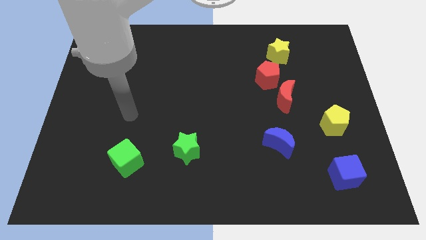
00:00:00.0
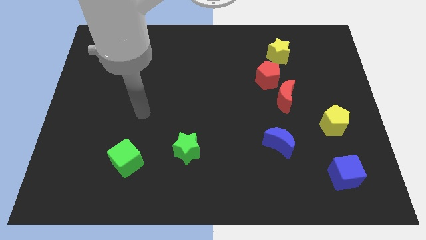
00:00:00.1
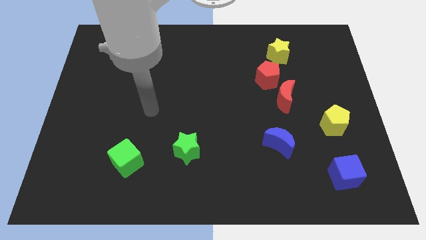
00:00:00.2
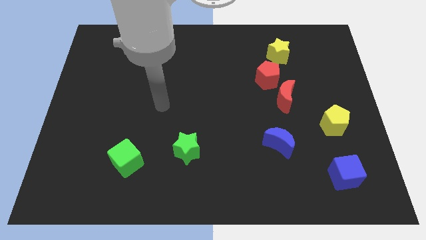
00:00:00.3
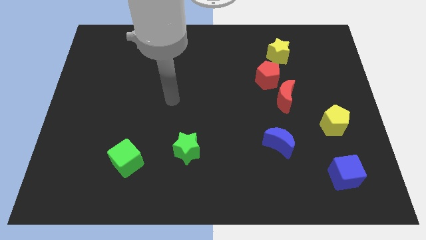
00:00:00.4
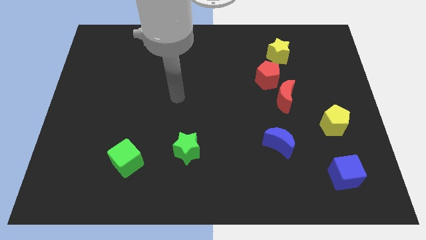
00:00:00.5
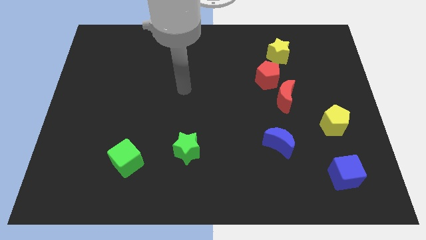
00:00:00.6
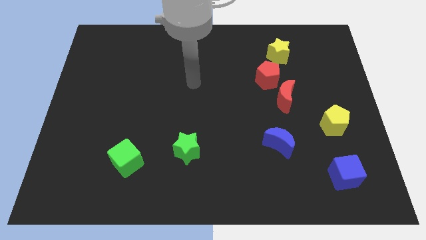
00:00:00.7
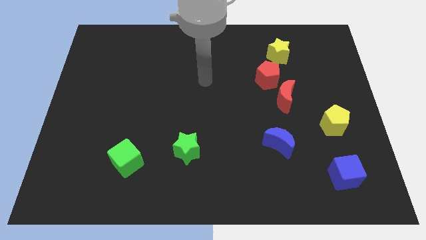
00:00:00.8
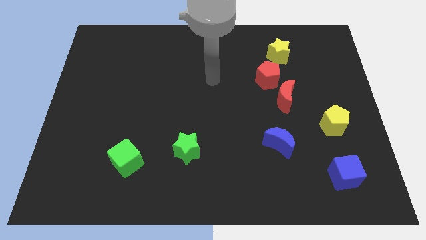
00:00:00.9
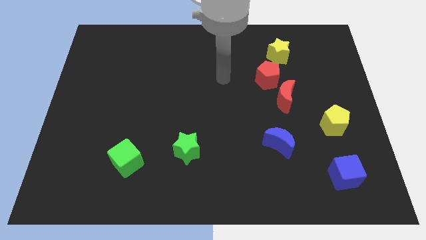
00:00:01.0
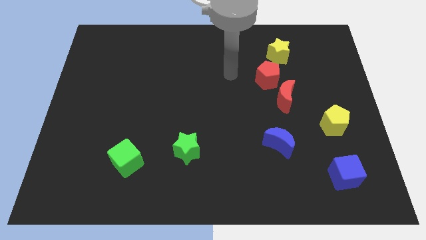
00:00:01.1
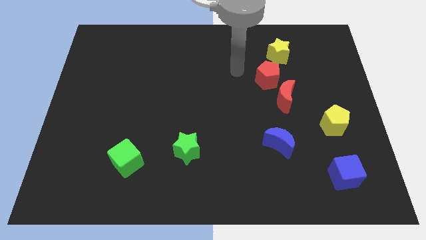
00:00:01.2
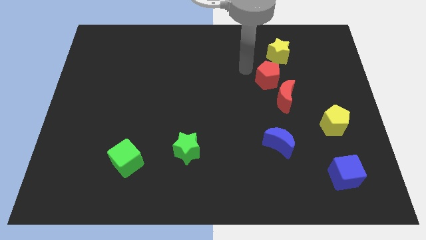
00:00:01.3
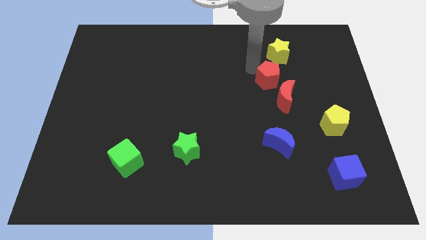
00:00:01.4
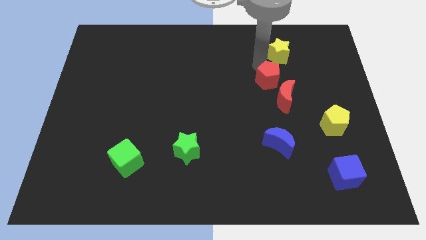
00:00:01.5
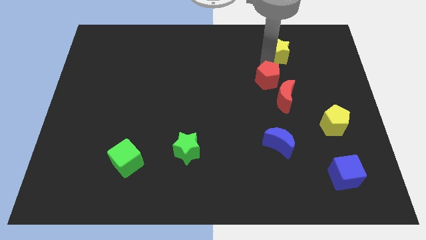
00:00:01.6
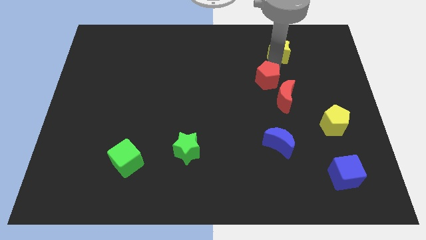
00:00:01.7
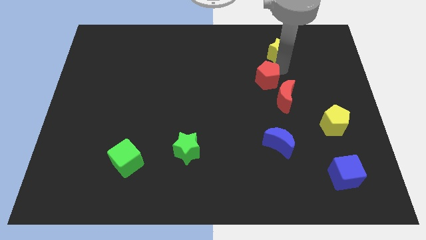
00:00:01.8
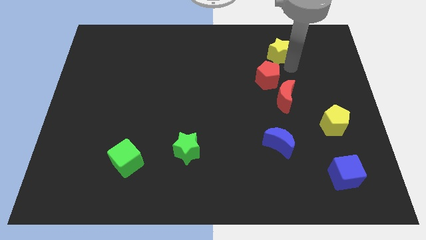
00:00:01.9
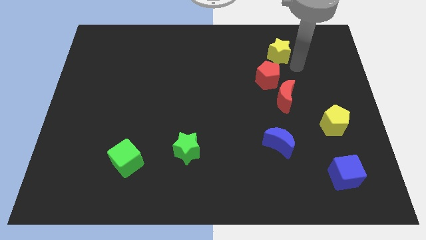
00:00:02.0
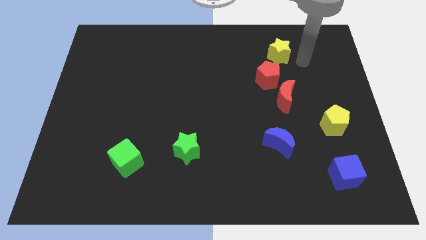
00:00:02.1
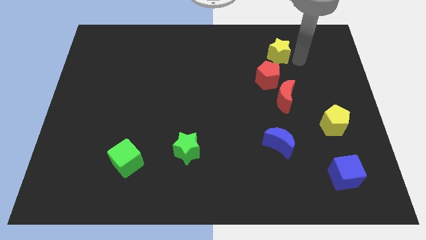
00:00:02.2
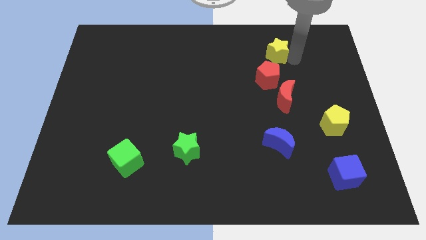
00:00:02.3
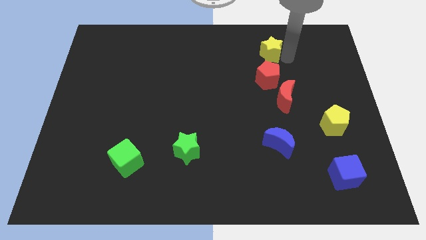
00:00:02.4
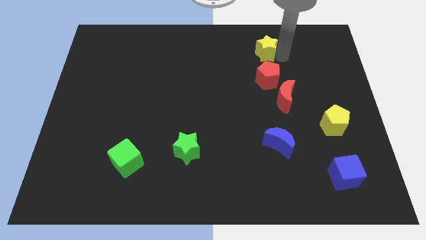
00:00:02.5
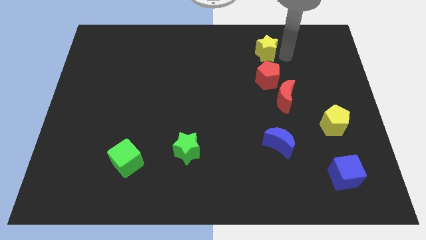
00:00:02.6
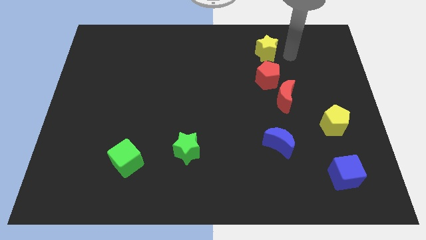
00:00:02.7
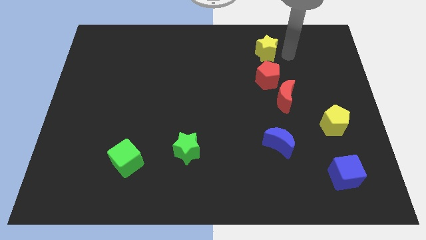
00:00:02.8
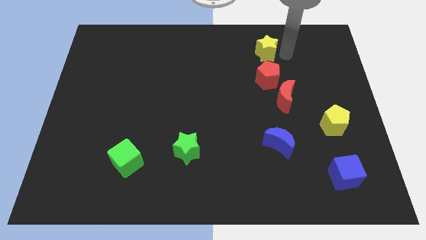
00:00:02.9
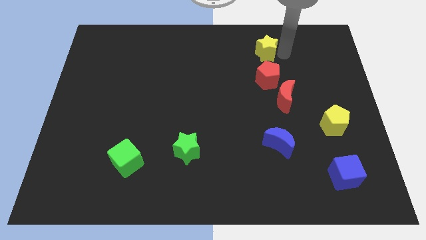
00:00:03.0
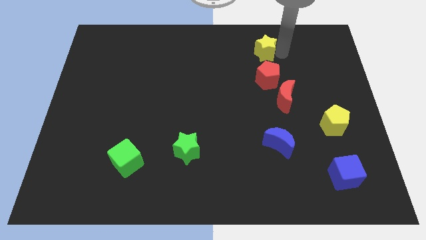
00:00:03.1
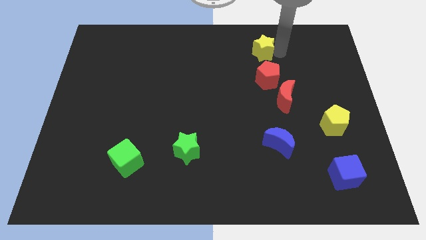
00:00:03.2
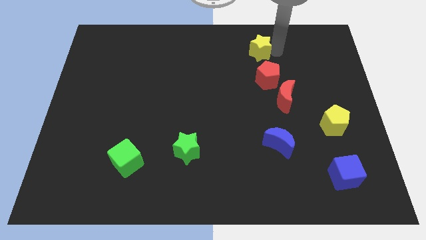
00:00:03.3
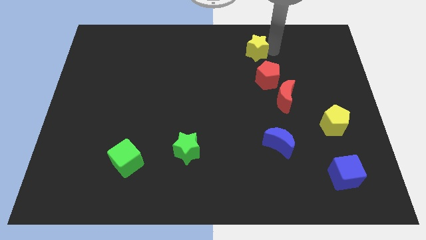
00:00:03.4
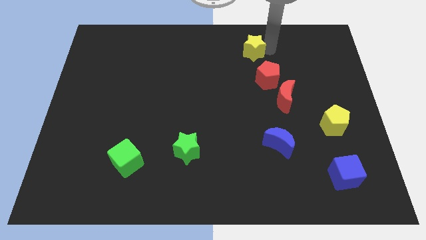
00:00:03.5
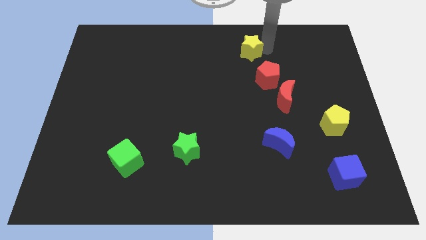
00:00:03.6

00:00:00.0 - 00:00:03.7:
push the yellow star to the left a bit

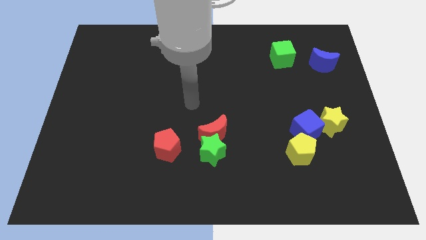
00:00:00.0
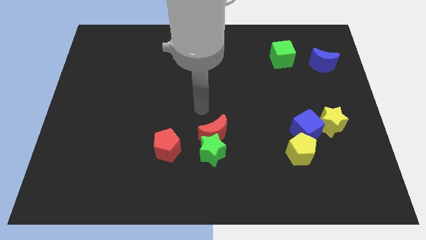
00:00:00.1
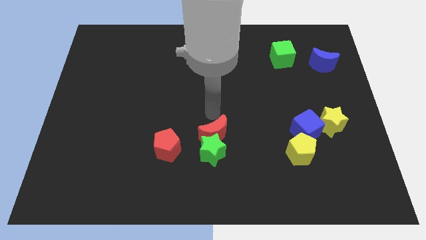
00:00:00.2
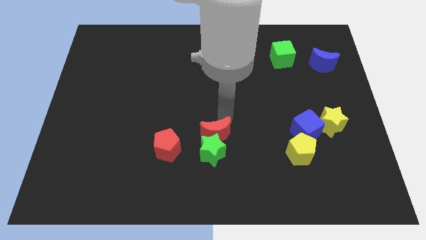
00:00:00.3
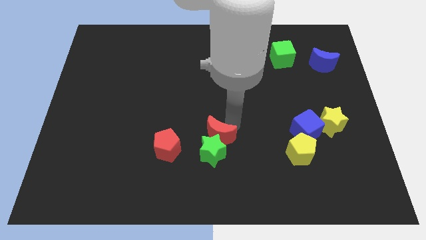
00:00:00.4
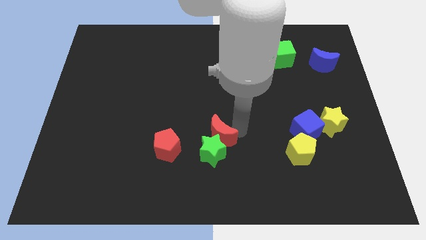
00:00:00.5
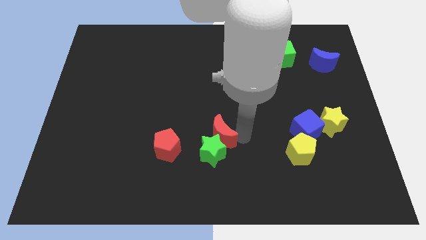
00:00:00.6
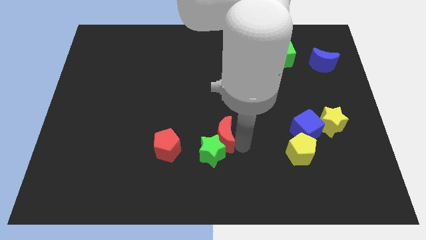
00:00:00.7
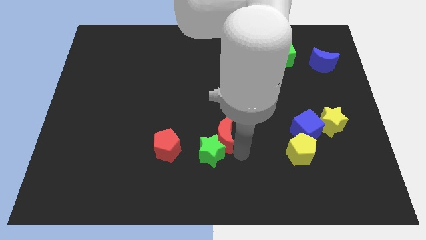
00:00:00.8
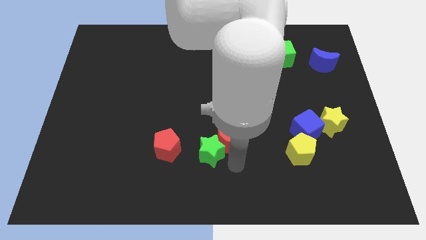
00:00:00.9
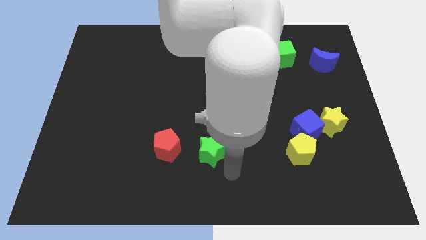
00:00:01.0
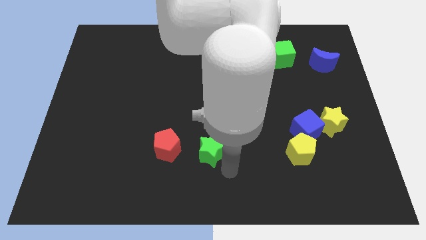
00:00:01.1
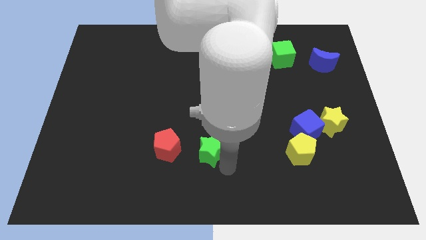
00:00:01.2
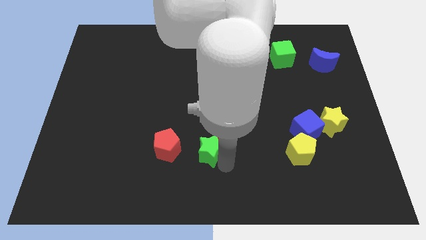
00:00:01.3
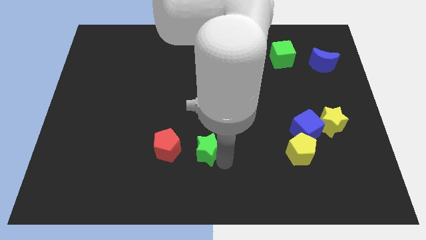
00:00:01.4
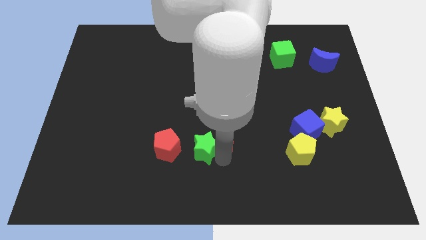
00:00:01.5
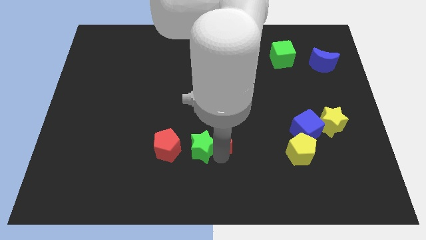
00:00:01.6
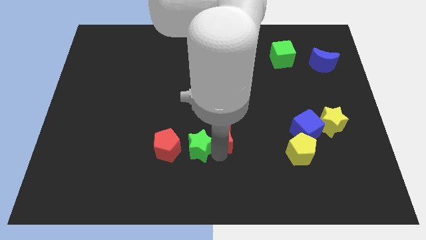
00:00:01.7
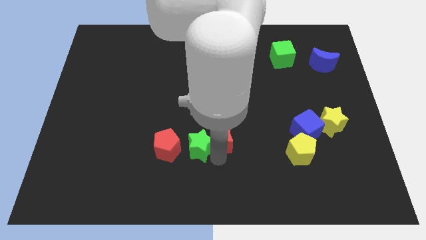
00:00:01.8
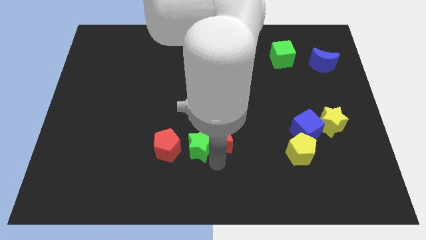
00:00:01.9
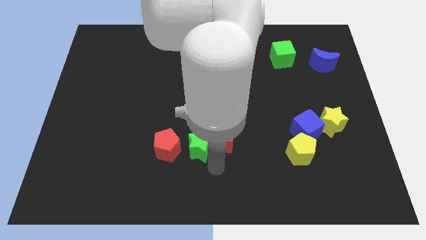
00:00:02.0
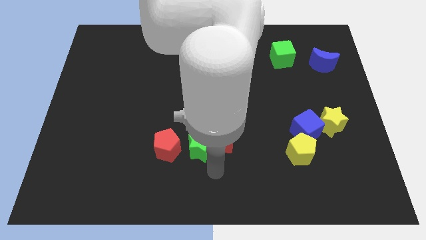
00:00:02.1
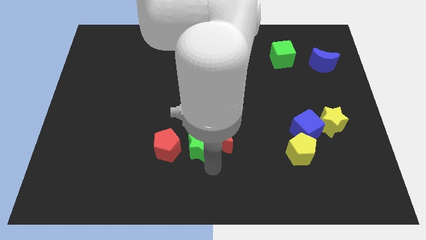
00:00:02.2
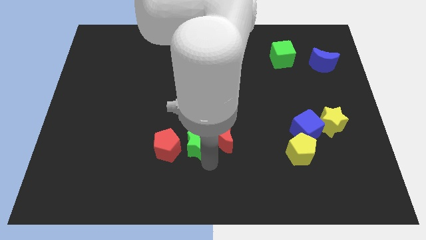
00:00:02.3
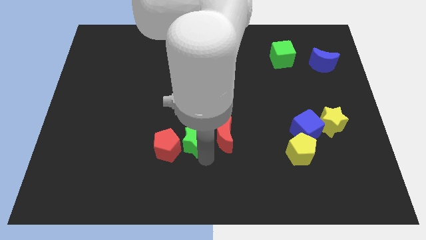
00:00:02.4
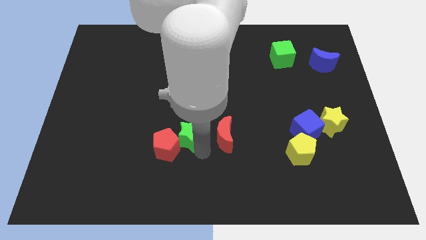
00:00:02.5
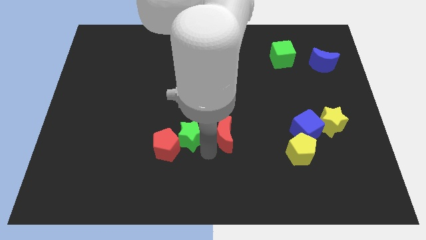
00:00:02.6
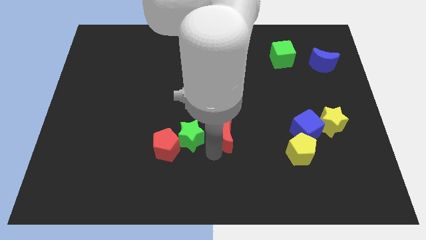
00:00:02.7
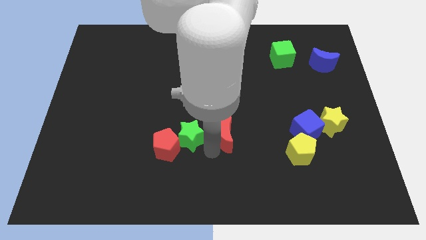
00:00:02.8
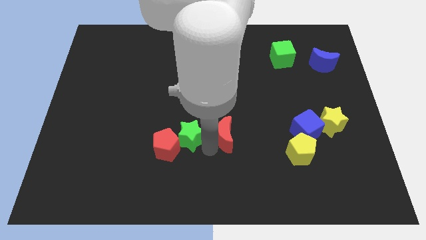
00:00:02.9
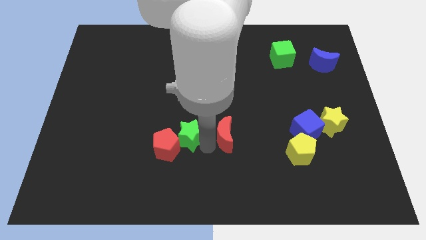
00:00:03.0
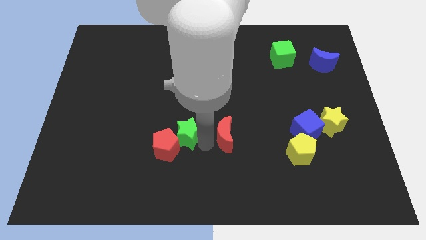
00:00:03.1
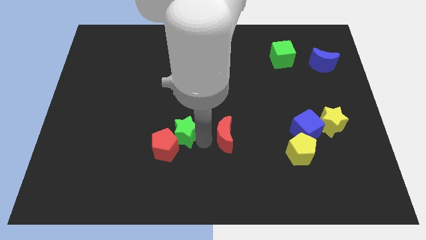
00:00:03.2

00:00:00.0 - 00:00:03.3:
slide the green star somewhat up and then left

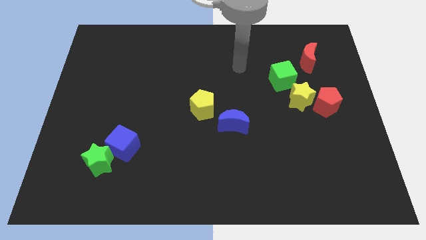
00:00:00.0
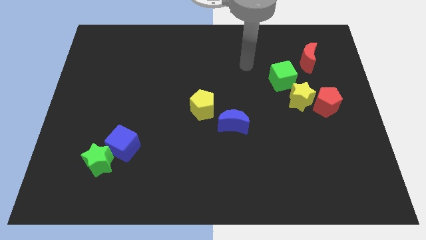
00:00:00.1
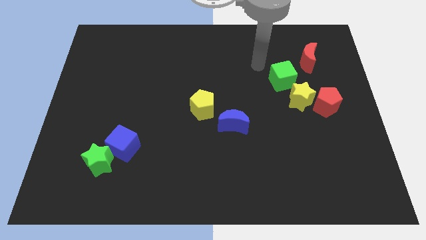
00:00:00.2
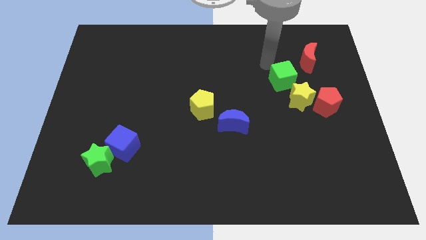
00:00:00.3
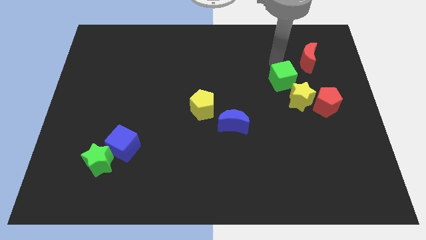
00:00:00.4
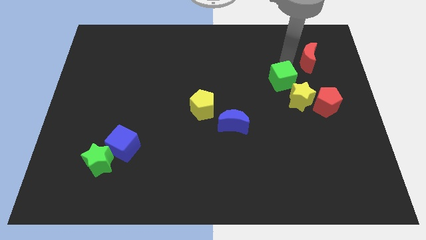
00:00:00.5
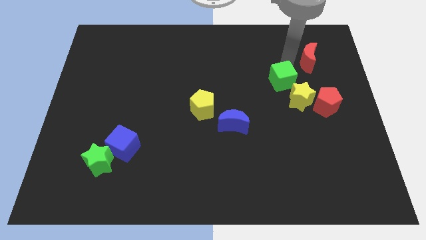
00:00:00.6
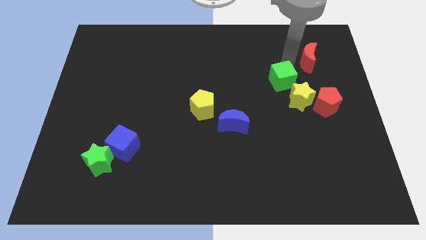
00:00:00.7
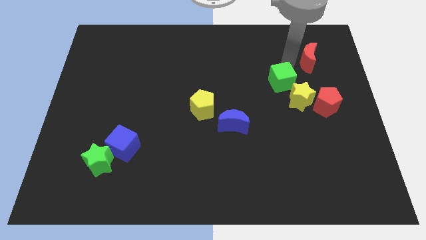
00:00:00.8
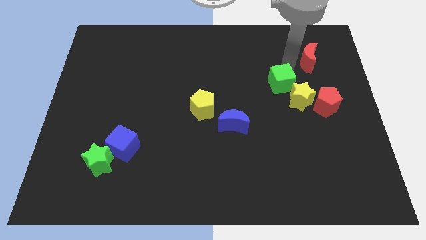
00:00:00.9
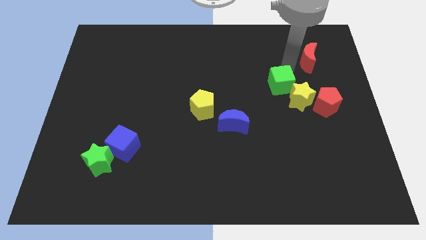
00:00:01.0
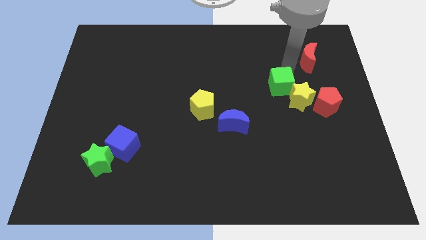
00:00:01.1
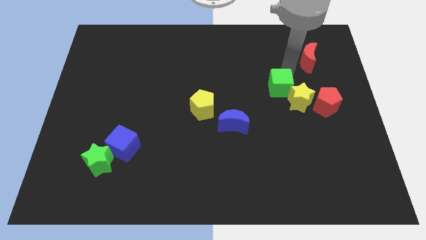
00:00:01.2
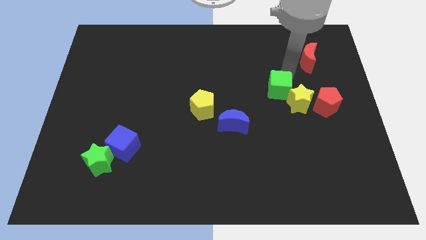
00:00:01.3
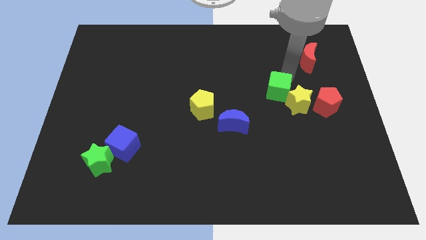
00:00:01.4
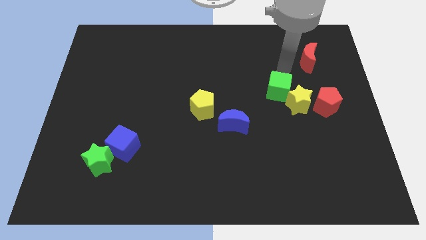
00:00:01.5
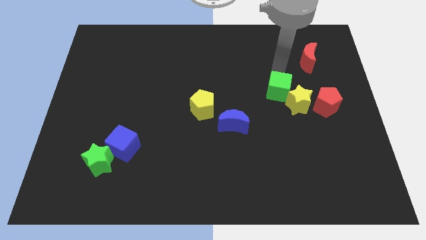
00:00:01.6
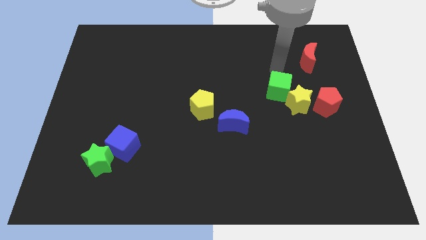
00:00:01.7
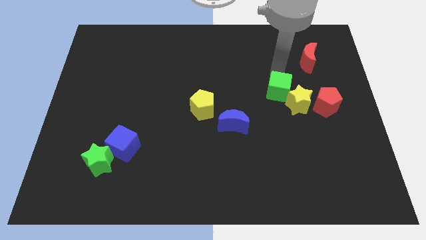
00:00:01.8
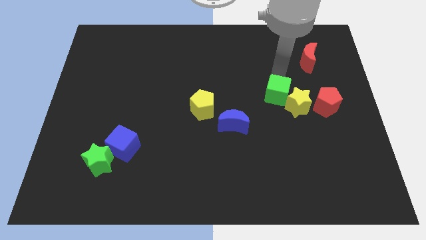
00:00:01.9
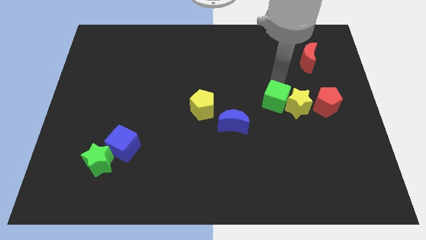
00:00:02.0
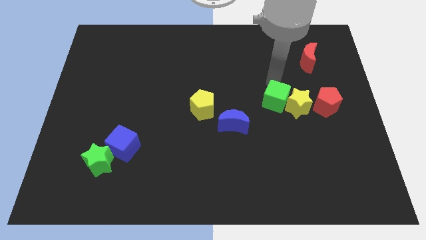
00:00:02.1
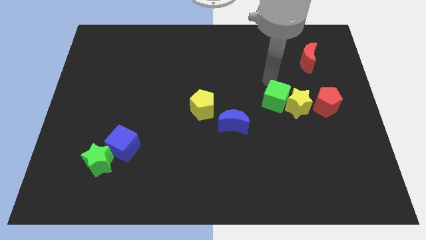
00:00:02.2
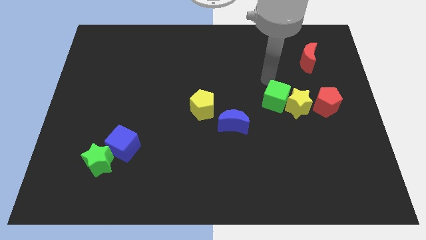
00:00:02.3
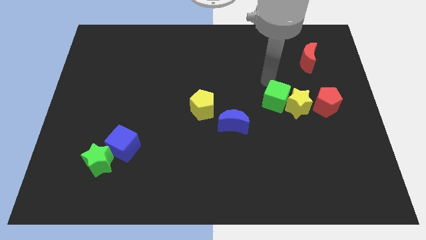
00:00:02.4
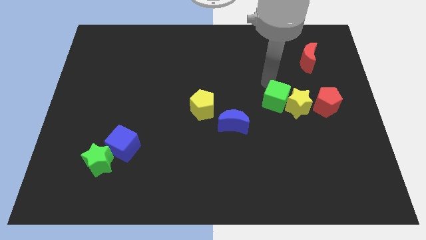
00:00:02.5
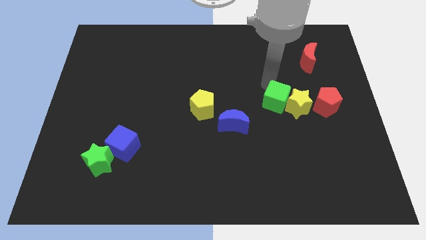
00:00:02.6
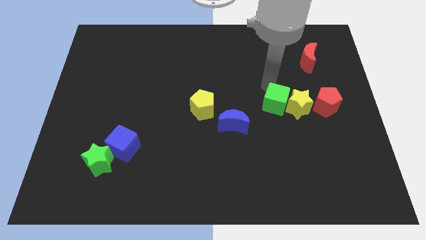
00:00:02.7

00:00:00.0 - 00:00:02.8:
slide the green cube down a little bit
